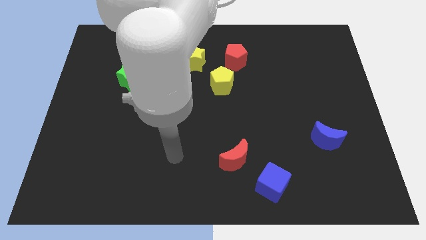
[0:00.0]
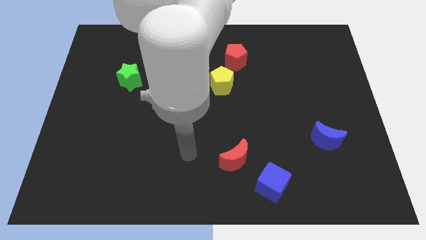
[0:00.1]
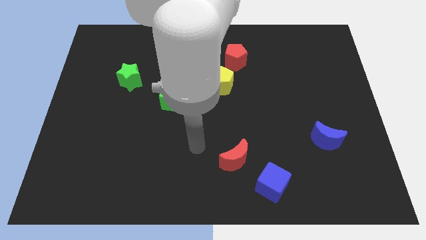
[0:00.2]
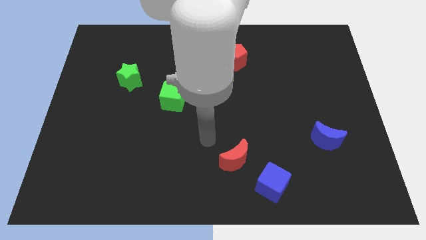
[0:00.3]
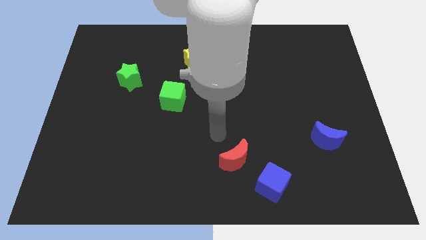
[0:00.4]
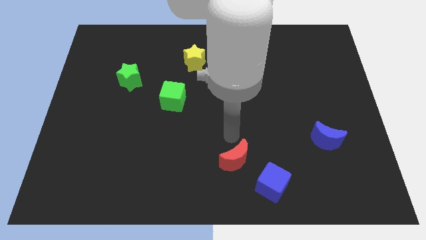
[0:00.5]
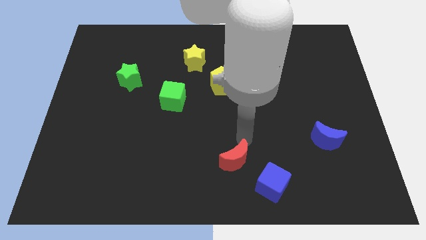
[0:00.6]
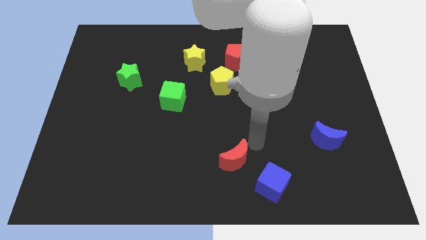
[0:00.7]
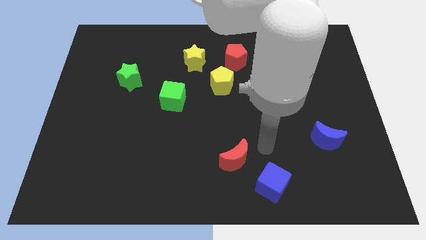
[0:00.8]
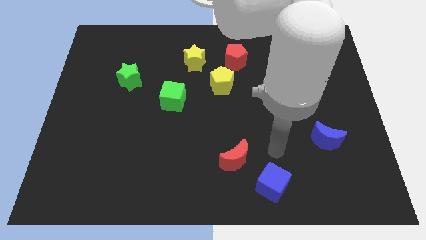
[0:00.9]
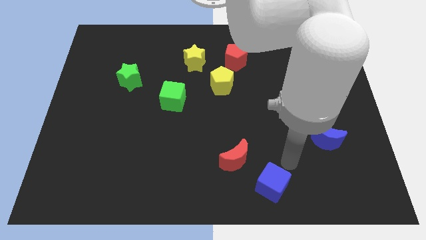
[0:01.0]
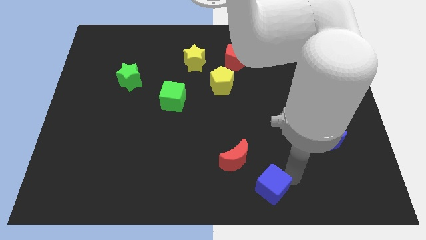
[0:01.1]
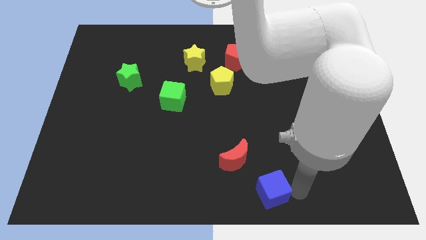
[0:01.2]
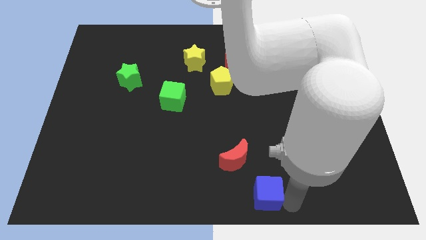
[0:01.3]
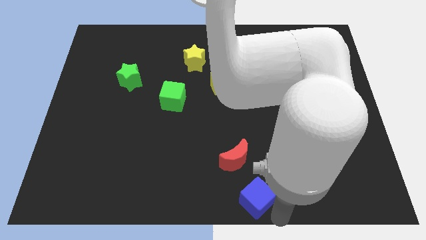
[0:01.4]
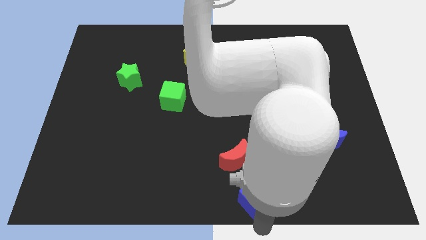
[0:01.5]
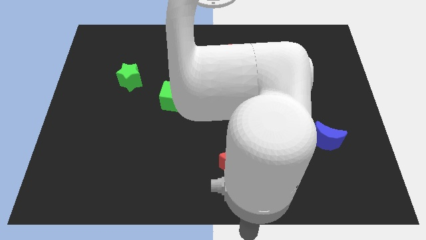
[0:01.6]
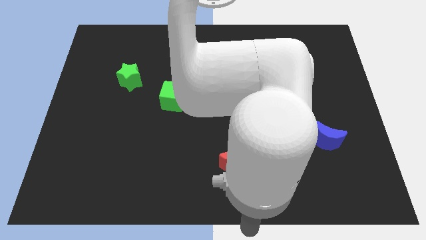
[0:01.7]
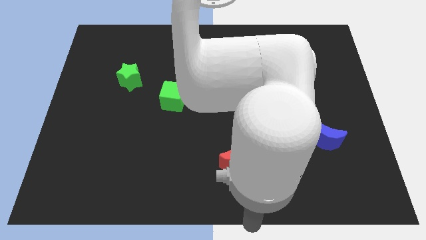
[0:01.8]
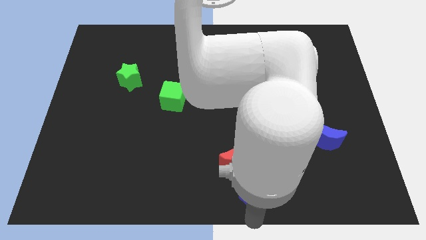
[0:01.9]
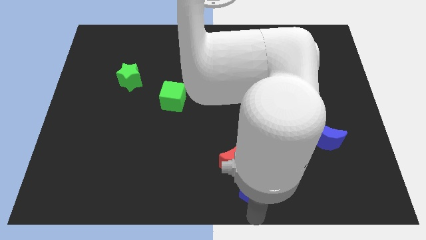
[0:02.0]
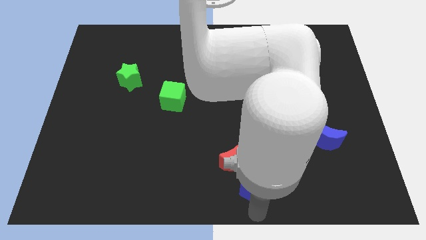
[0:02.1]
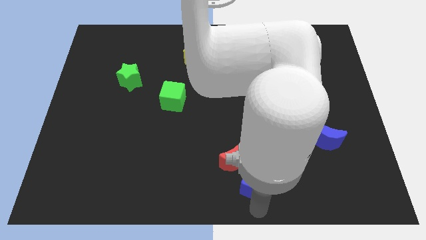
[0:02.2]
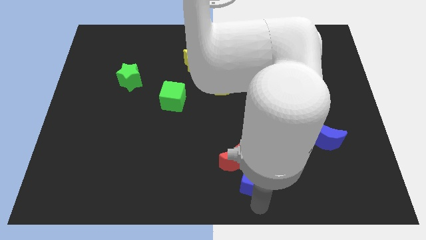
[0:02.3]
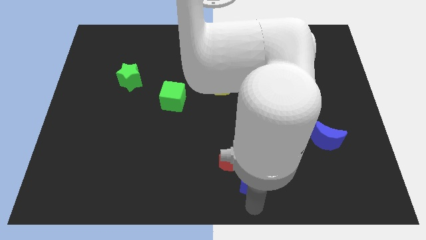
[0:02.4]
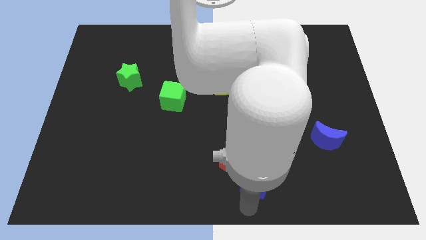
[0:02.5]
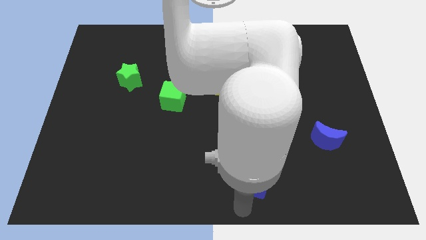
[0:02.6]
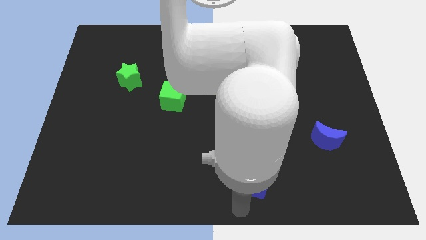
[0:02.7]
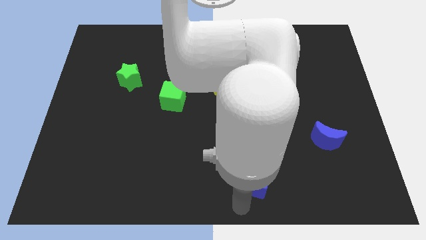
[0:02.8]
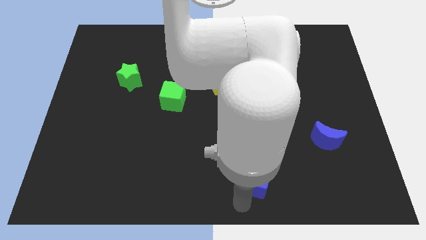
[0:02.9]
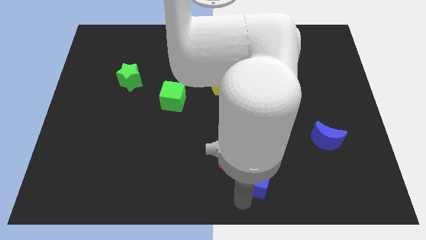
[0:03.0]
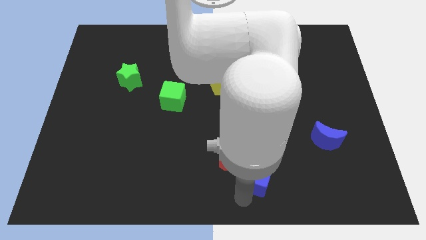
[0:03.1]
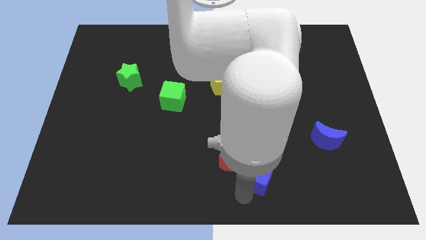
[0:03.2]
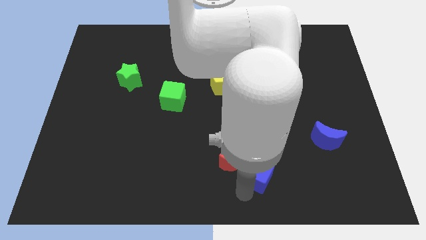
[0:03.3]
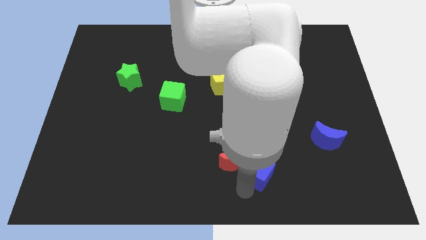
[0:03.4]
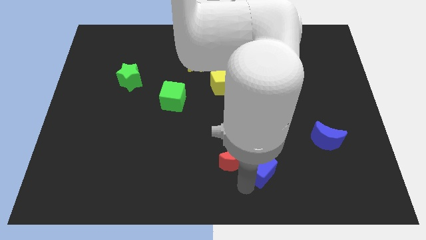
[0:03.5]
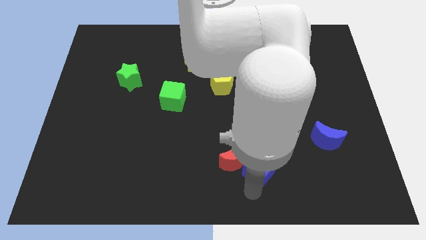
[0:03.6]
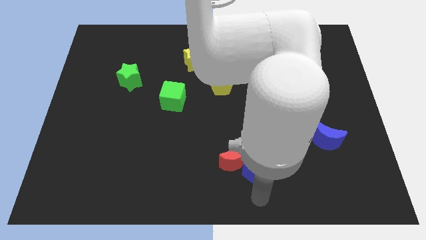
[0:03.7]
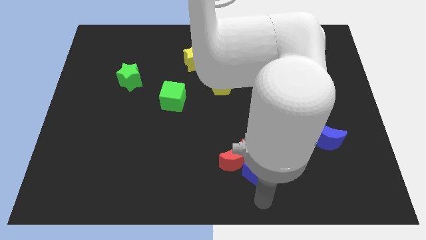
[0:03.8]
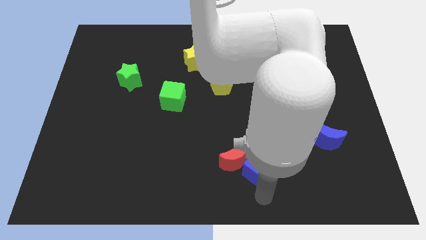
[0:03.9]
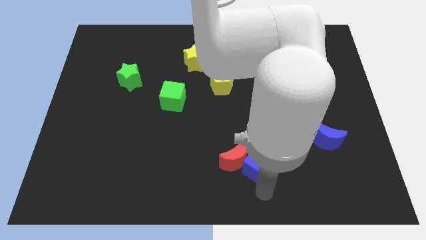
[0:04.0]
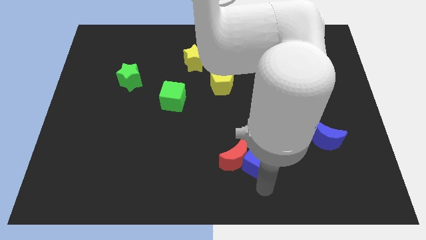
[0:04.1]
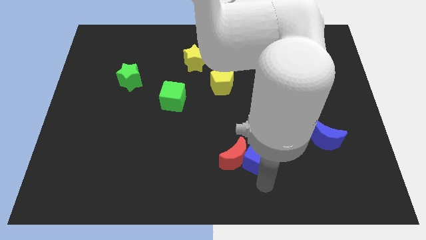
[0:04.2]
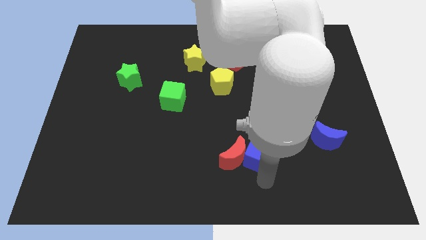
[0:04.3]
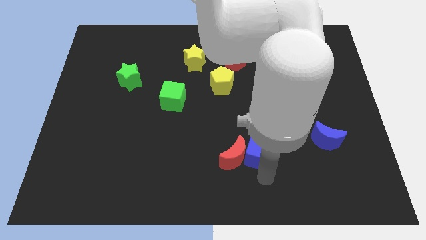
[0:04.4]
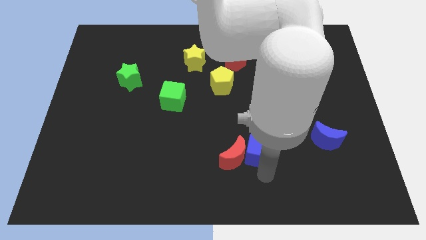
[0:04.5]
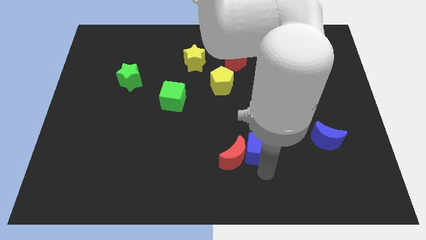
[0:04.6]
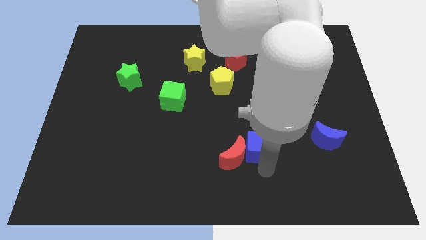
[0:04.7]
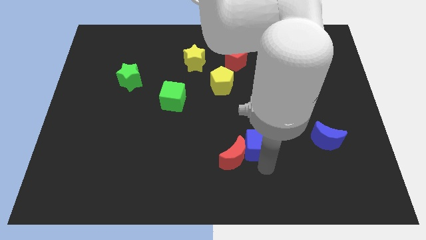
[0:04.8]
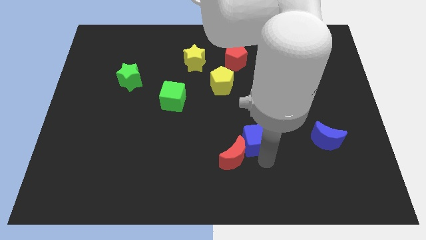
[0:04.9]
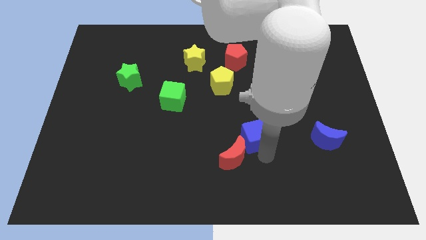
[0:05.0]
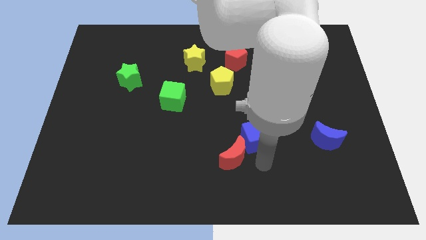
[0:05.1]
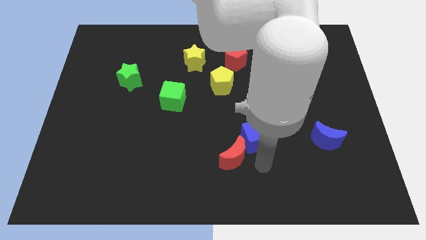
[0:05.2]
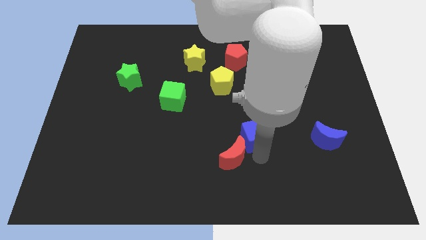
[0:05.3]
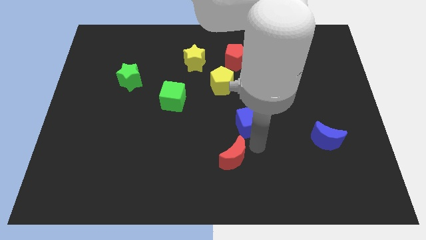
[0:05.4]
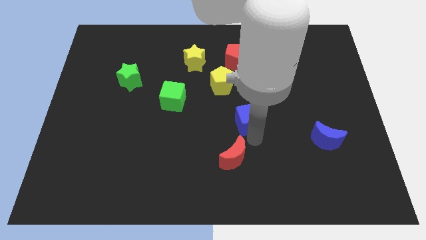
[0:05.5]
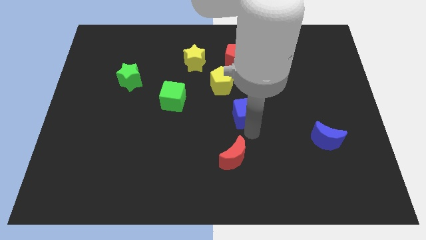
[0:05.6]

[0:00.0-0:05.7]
slide the blue cube to the bottom right side of the yellow pentagon

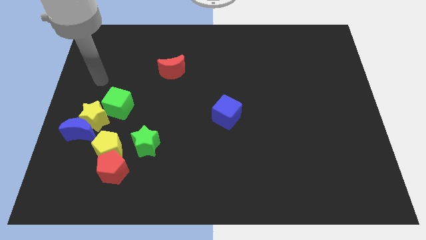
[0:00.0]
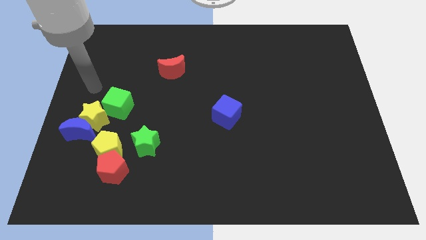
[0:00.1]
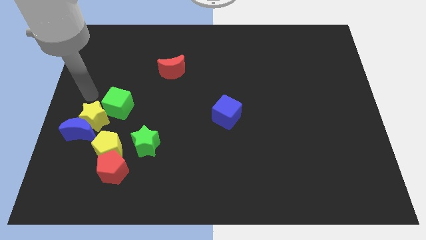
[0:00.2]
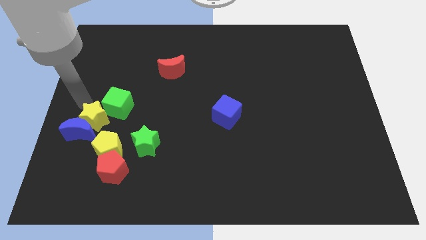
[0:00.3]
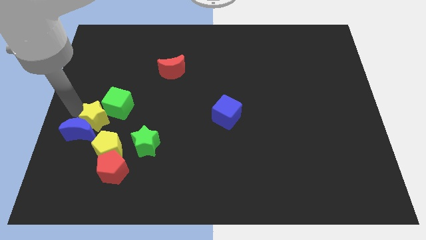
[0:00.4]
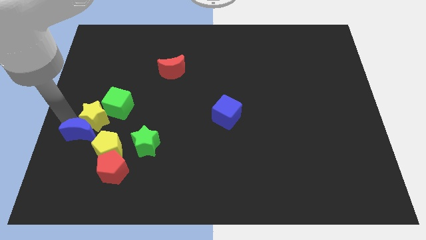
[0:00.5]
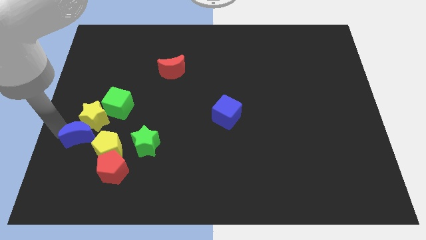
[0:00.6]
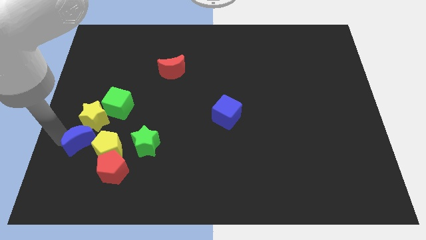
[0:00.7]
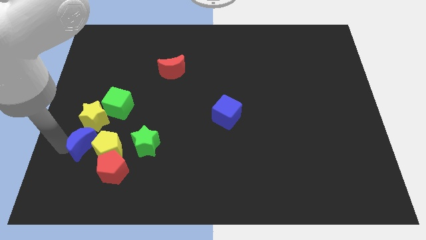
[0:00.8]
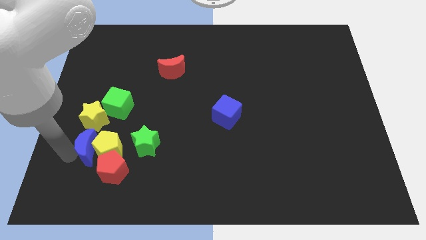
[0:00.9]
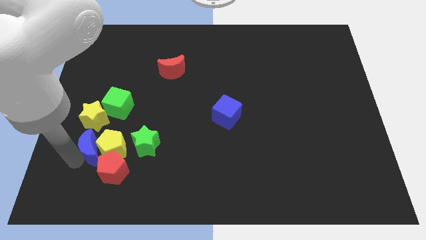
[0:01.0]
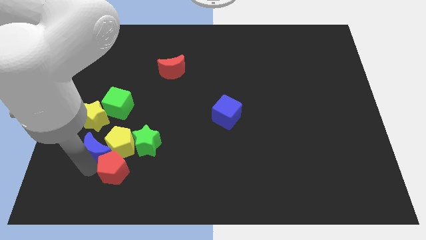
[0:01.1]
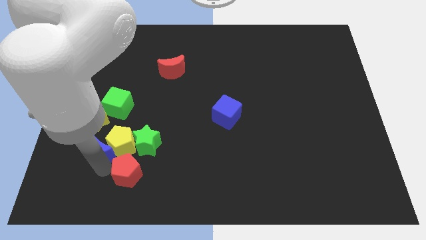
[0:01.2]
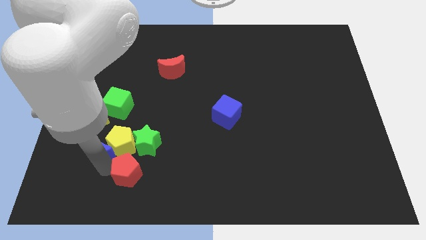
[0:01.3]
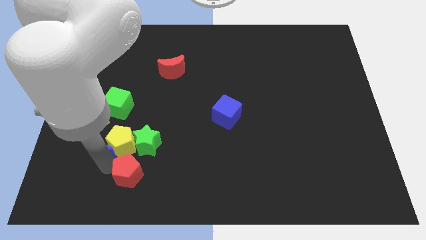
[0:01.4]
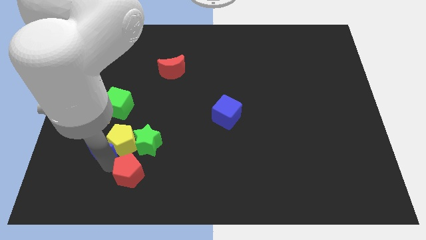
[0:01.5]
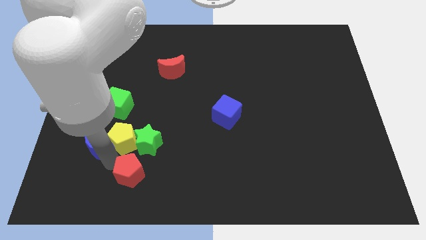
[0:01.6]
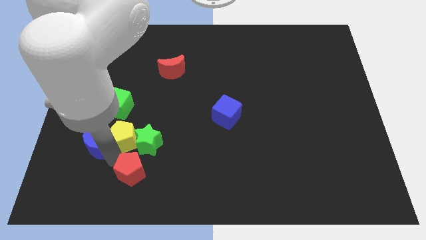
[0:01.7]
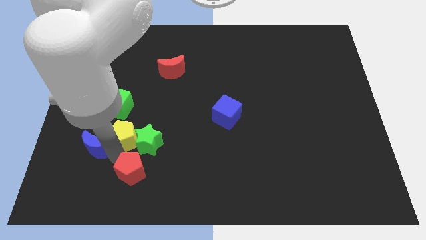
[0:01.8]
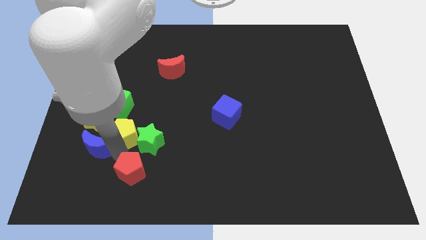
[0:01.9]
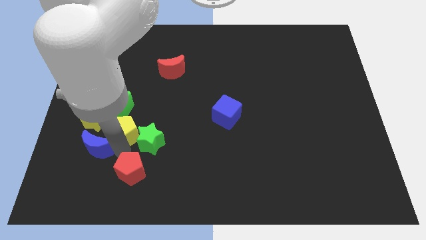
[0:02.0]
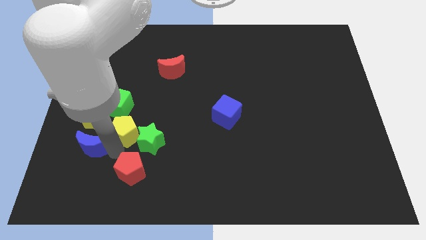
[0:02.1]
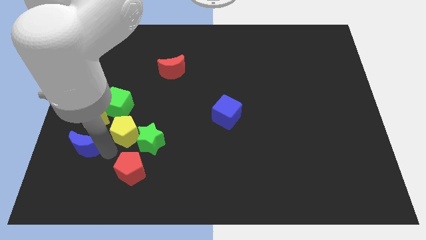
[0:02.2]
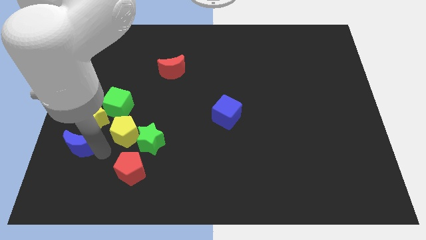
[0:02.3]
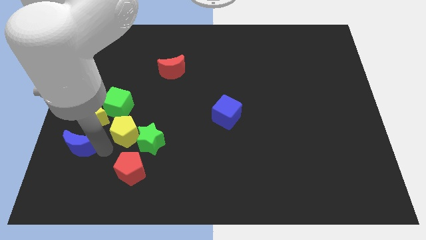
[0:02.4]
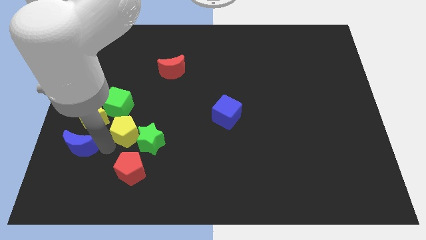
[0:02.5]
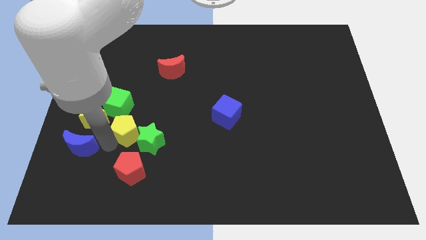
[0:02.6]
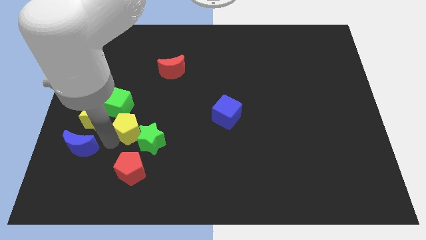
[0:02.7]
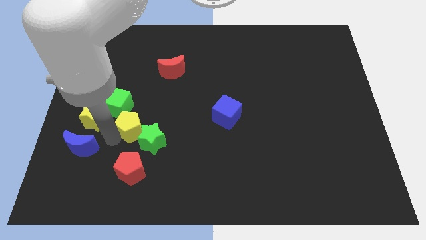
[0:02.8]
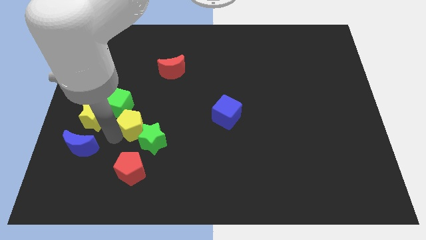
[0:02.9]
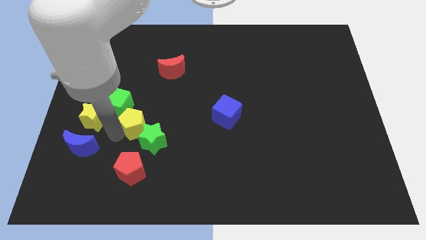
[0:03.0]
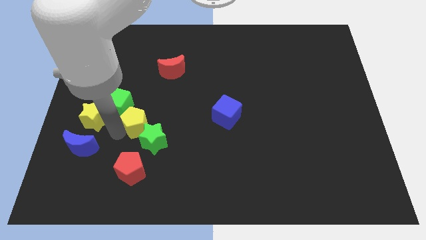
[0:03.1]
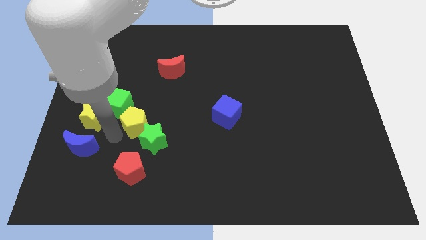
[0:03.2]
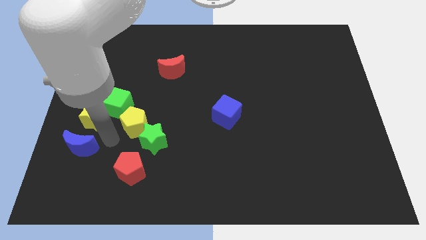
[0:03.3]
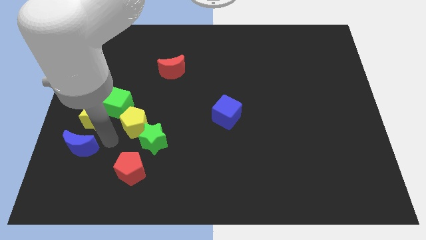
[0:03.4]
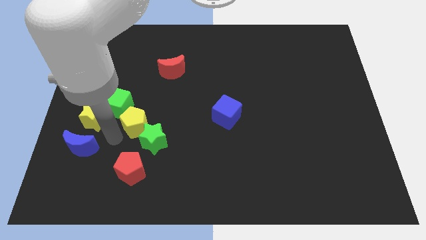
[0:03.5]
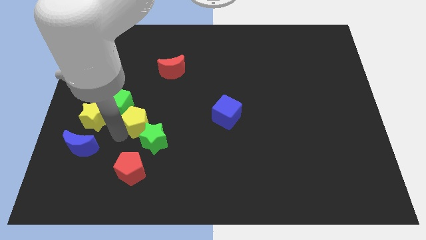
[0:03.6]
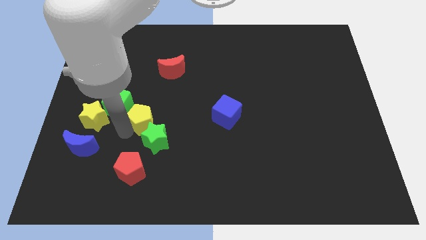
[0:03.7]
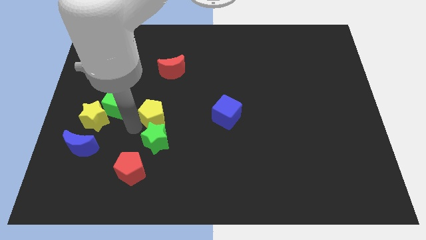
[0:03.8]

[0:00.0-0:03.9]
slide the yellow pentagon to the bottom of the red moon
